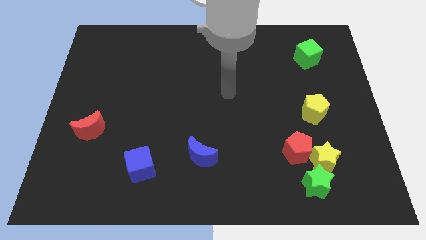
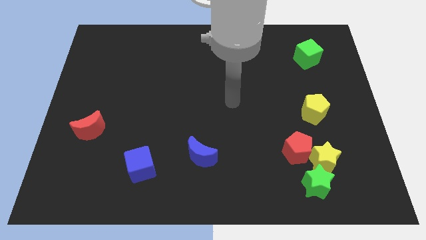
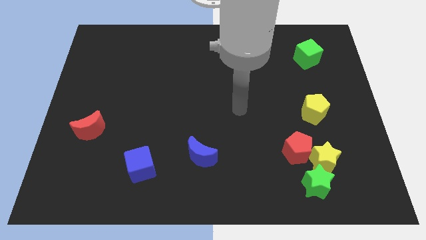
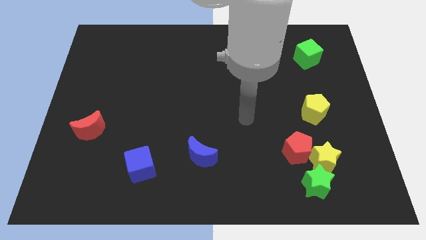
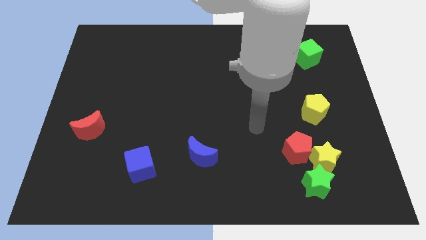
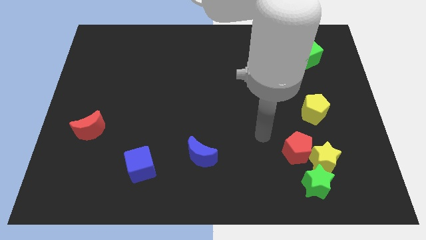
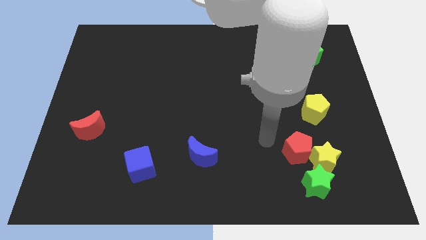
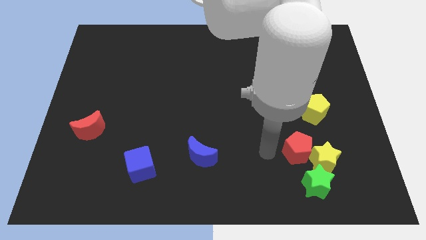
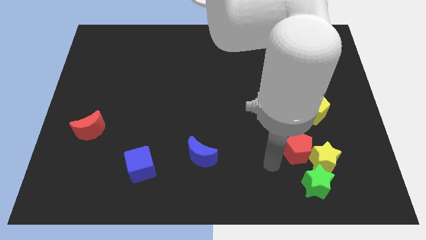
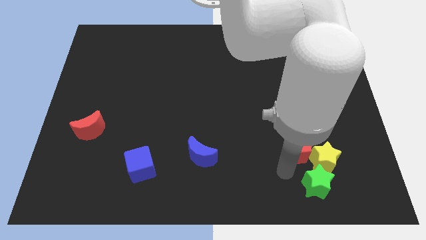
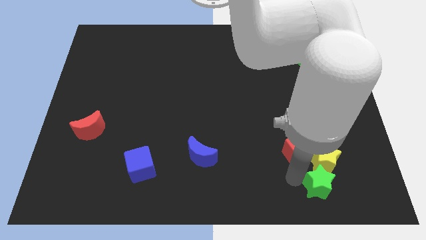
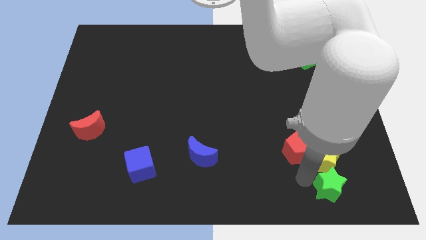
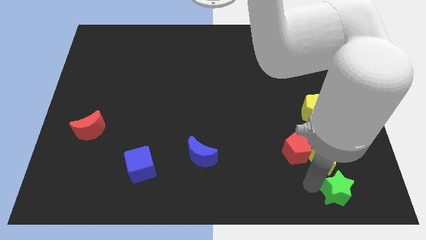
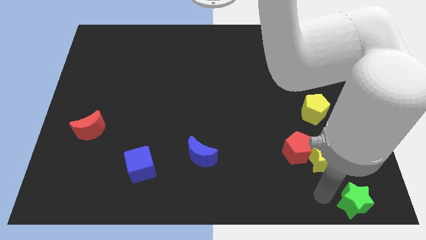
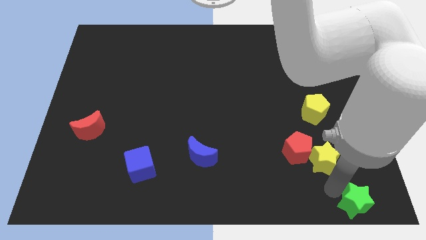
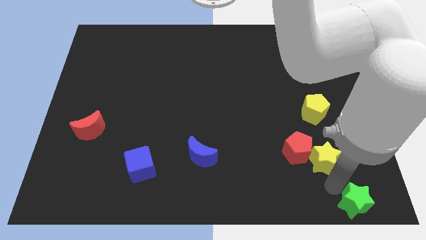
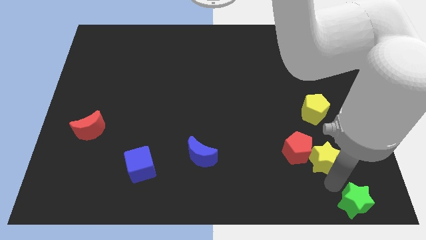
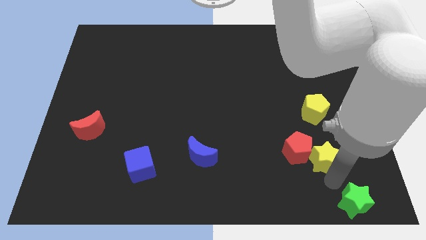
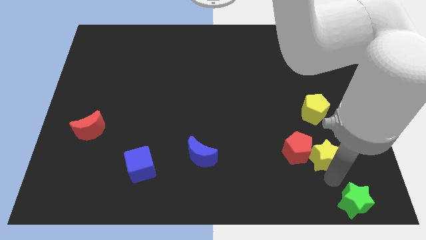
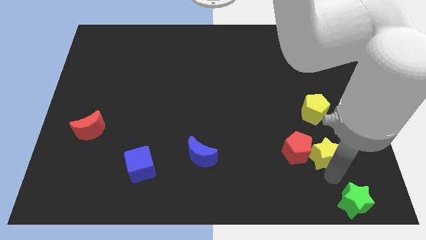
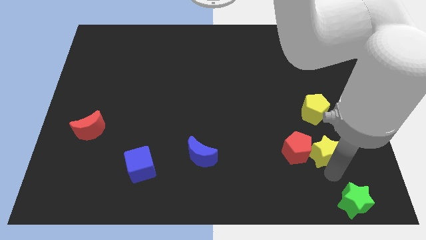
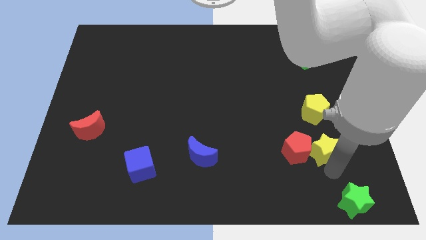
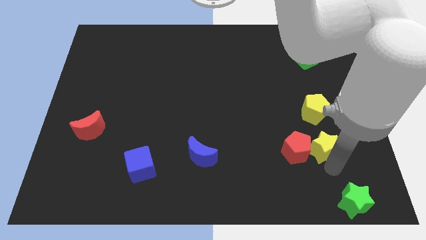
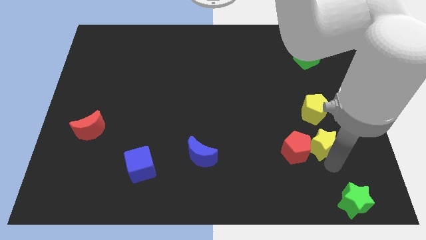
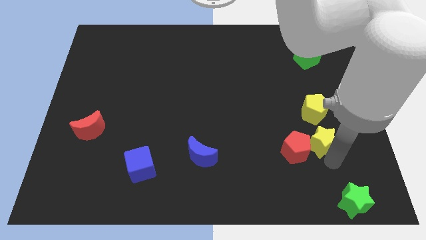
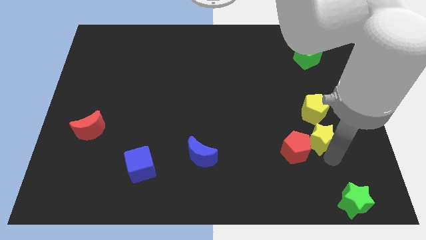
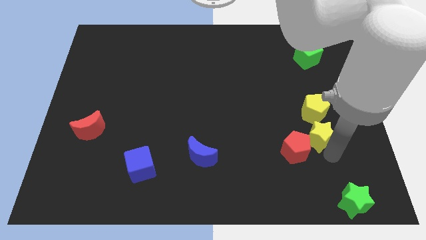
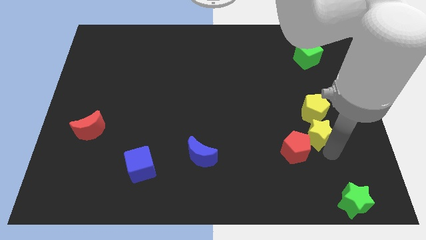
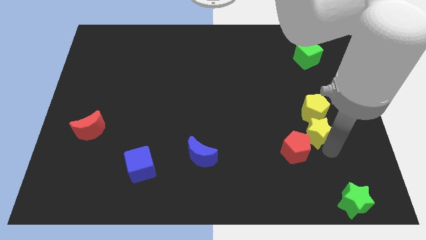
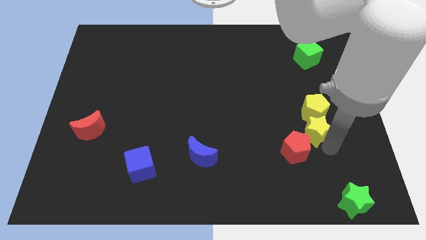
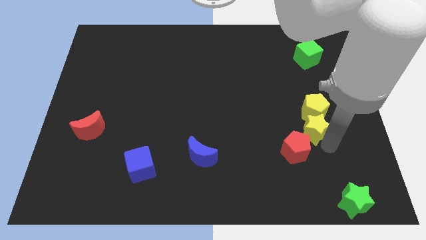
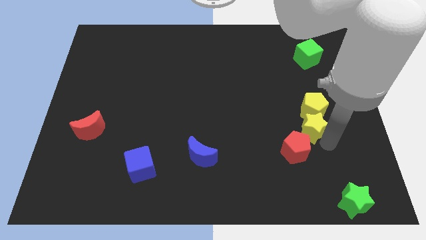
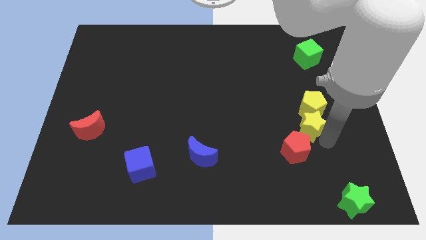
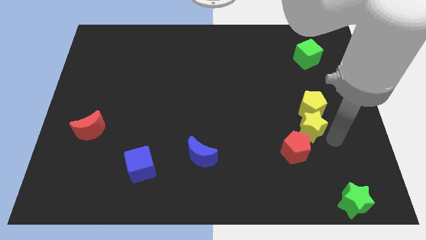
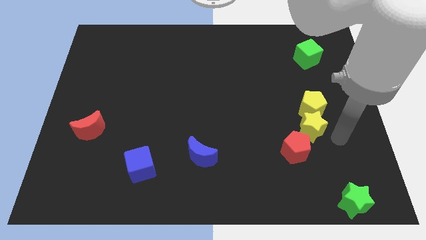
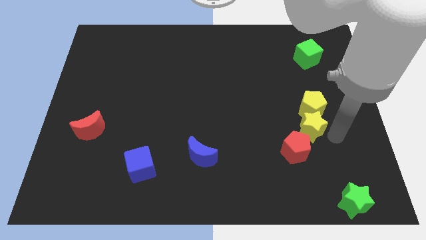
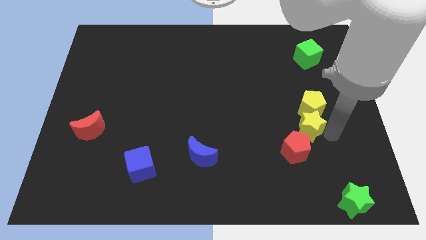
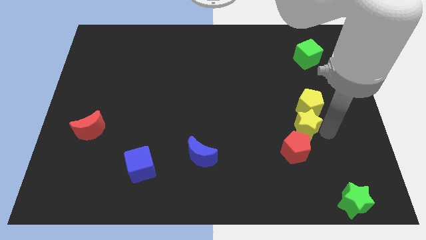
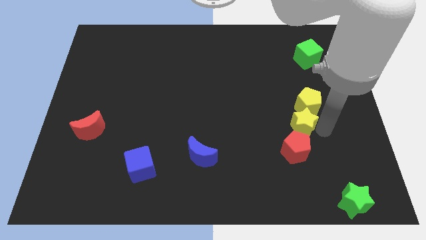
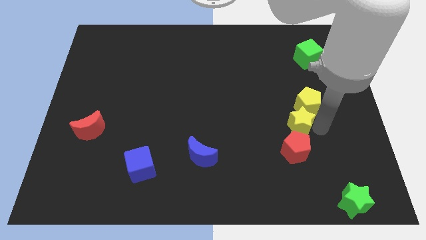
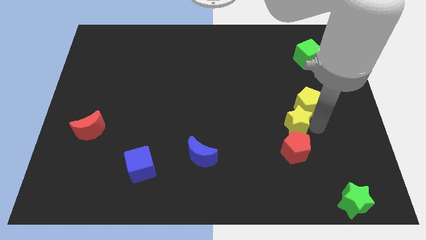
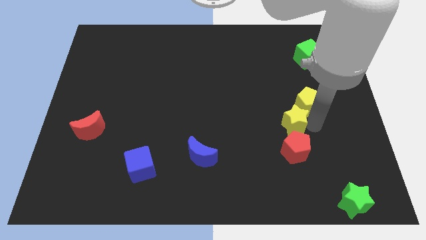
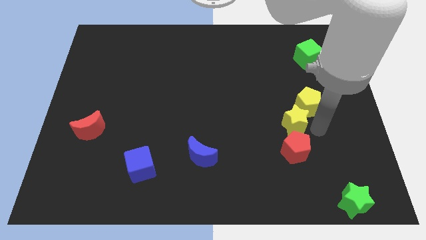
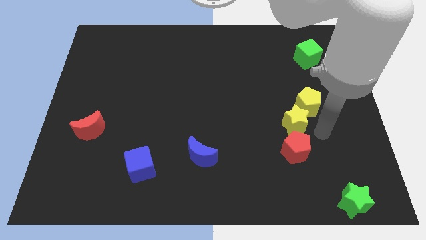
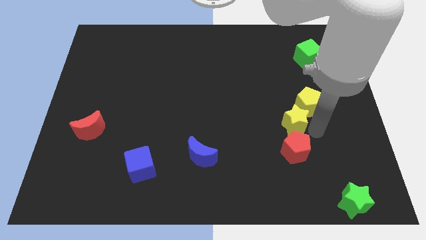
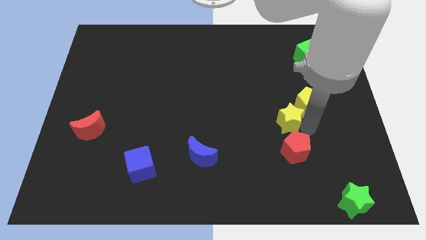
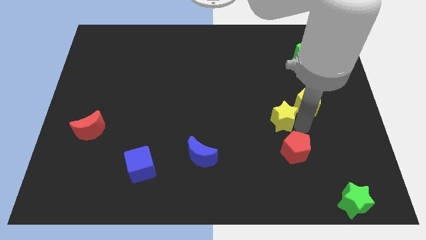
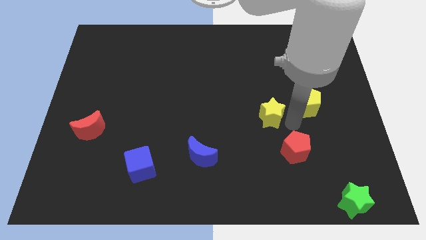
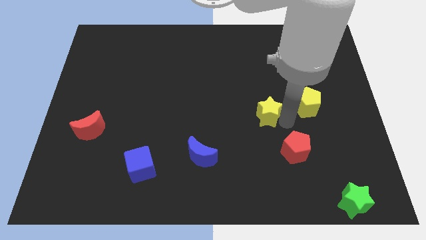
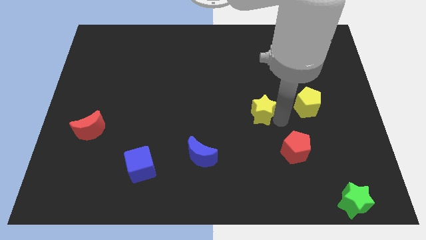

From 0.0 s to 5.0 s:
move the yellow star to the middle

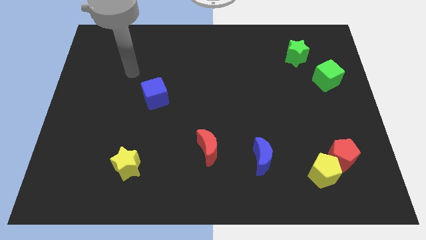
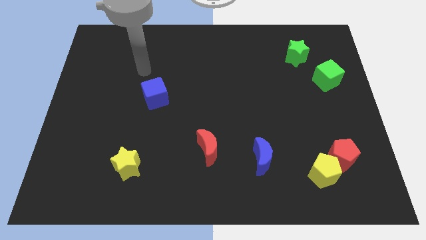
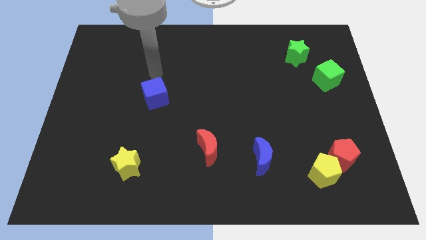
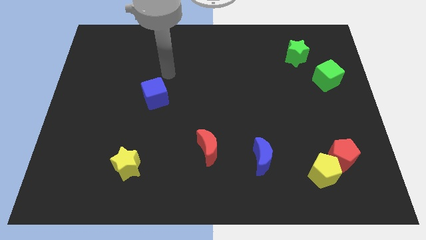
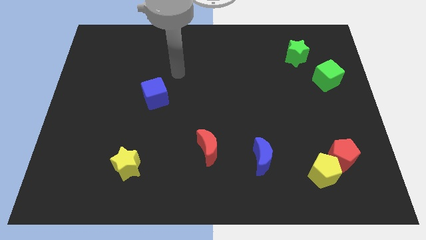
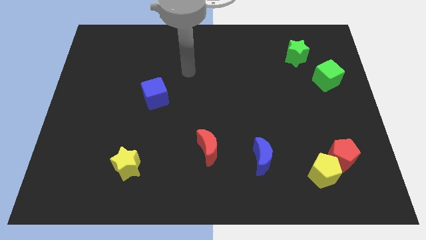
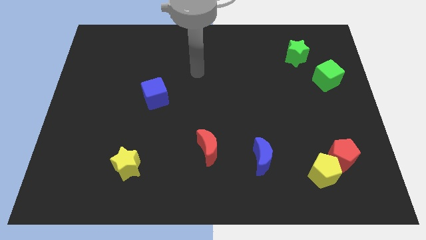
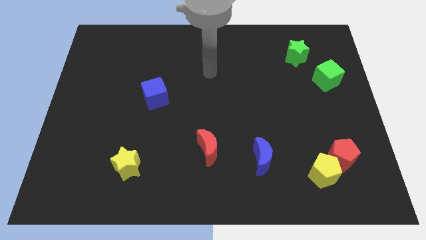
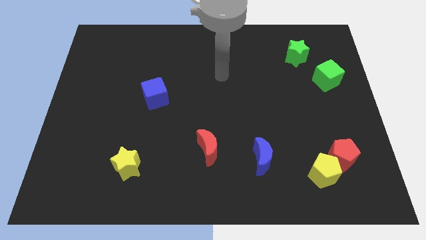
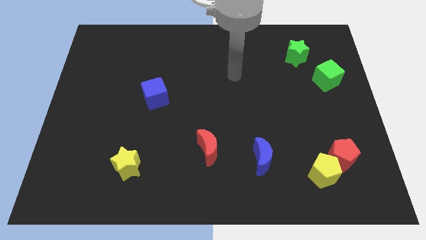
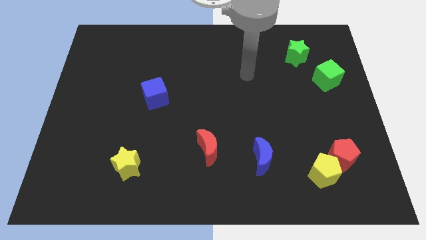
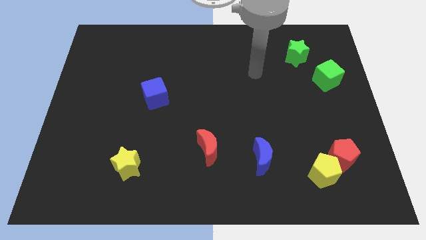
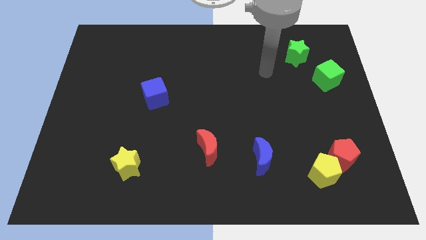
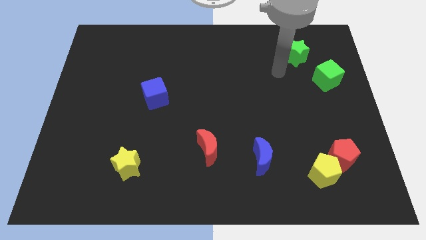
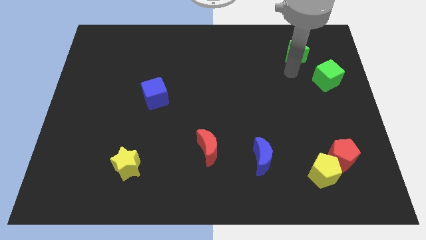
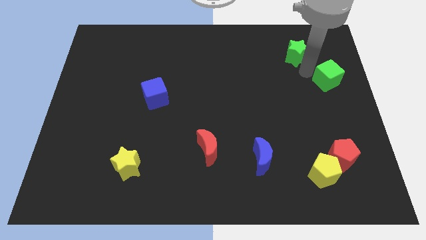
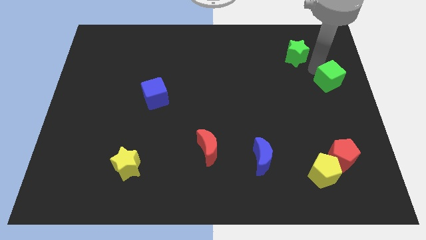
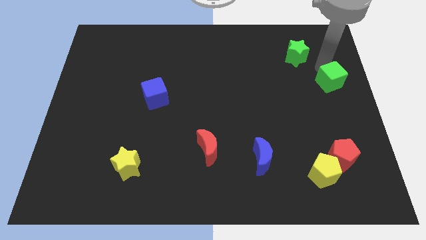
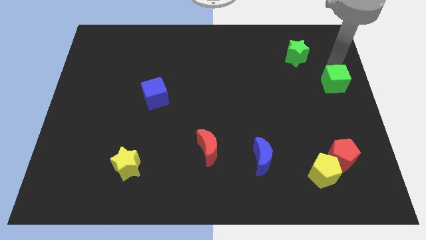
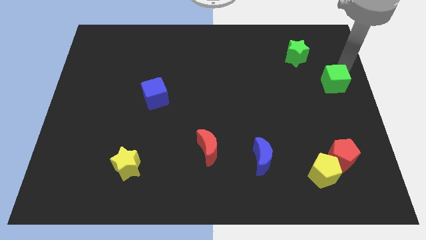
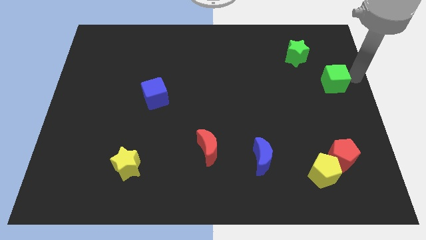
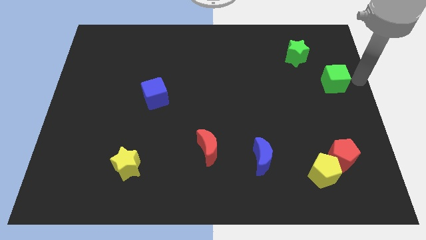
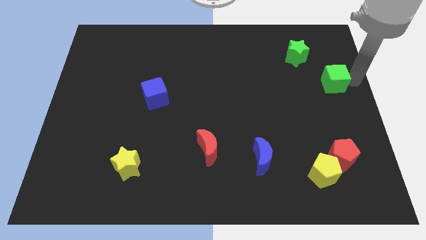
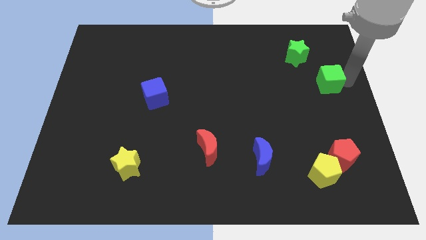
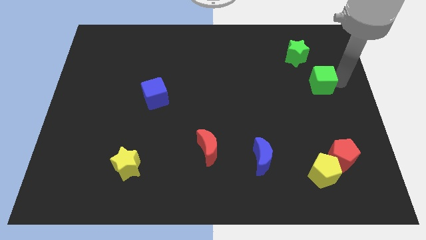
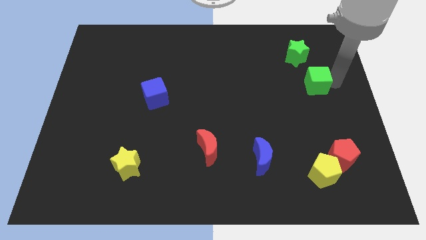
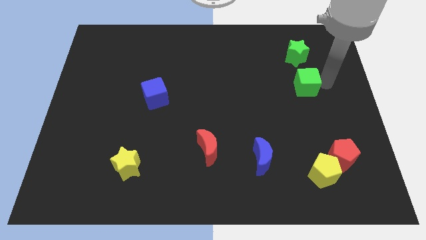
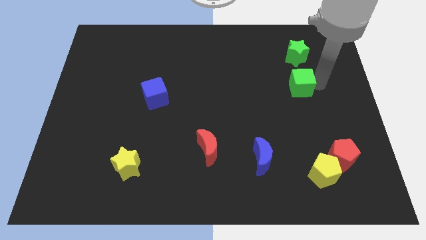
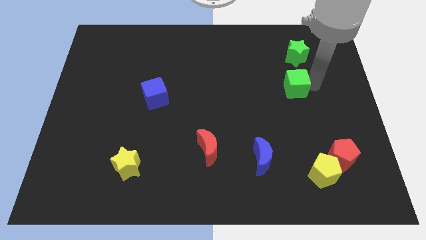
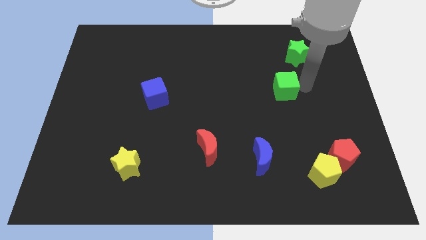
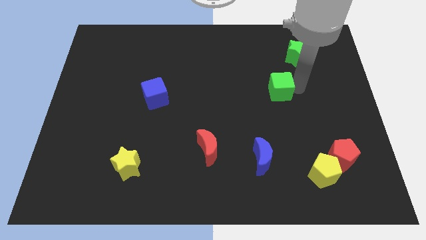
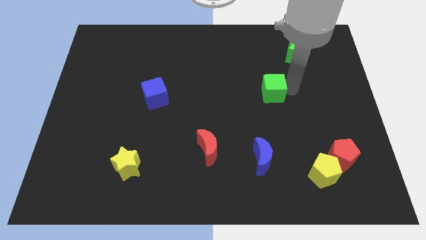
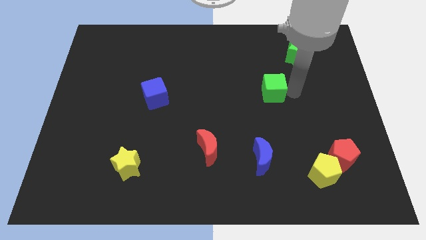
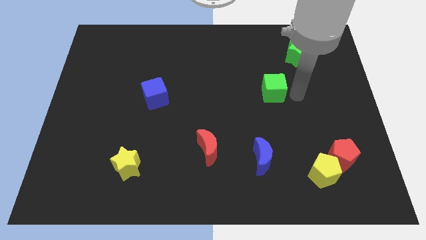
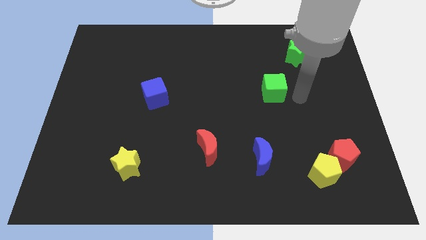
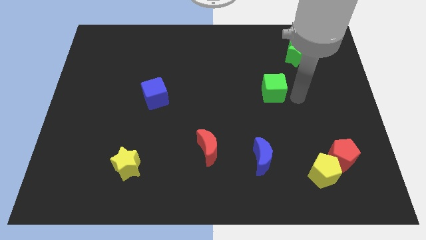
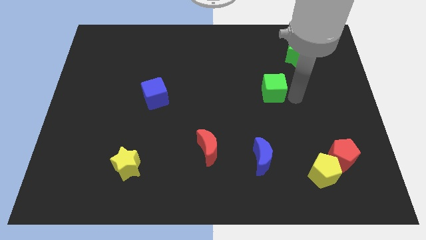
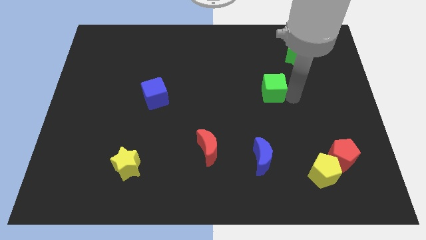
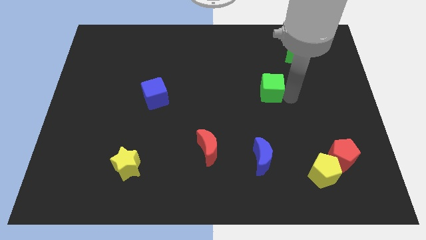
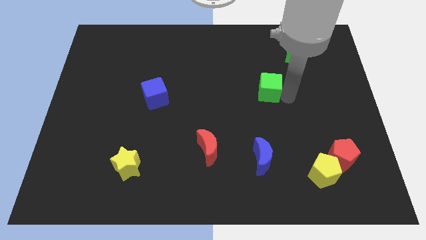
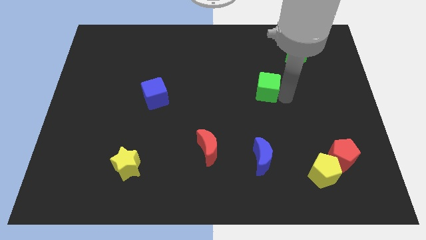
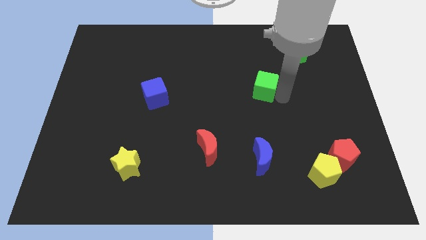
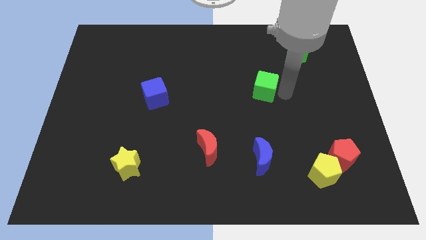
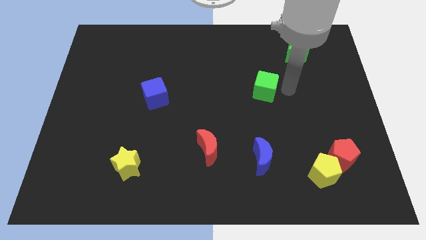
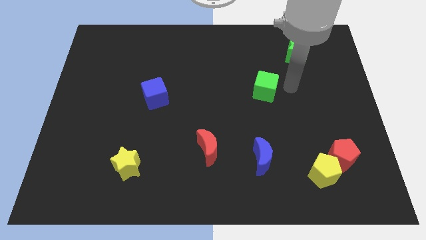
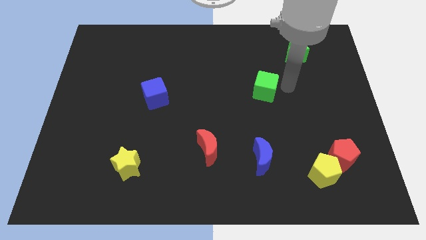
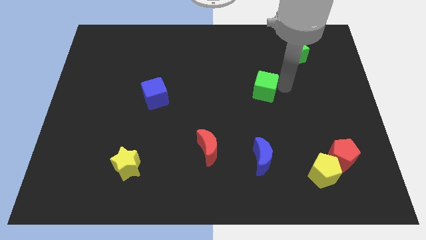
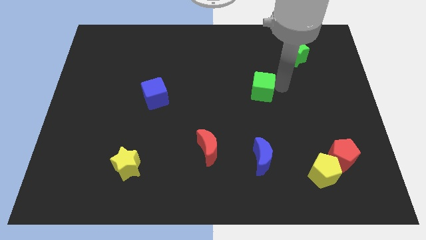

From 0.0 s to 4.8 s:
slide the green cube to the center
